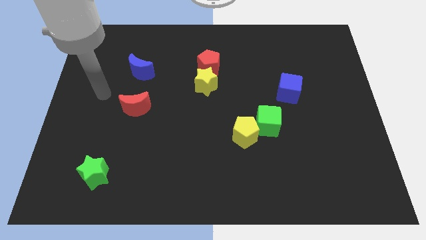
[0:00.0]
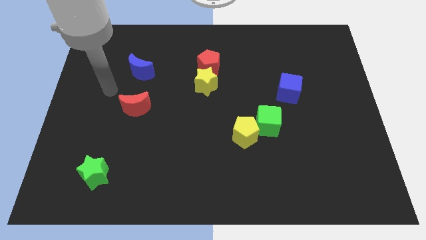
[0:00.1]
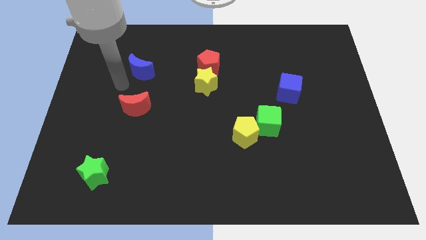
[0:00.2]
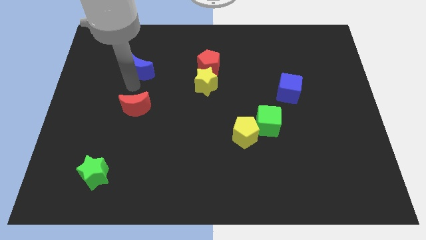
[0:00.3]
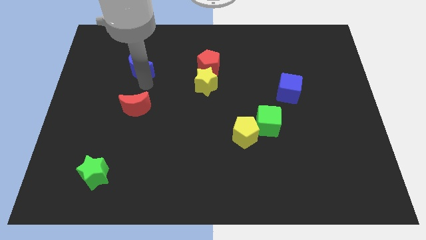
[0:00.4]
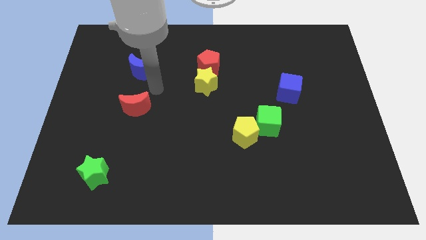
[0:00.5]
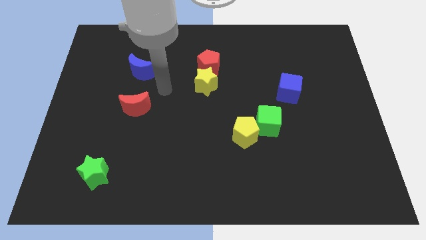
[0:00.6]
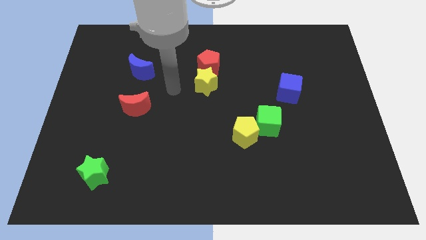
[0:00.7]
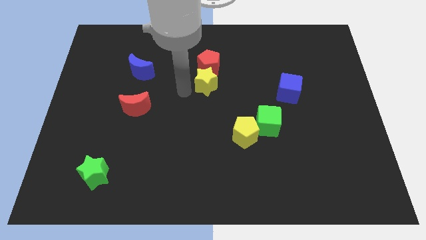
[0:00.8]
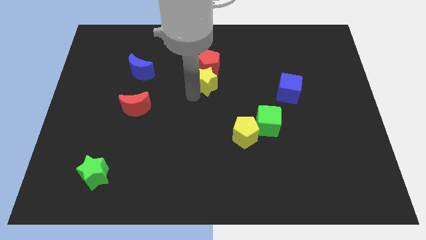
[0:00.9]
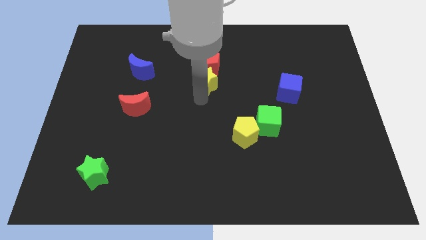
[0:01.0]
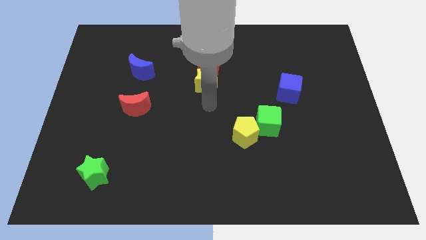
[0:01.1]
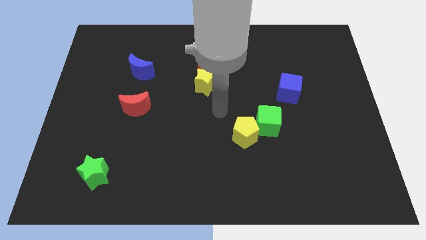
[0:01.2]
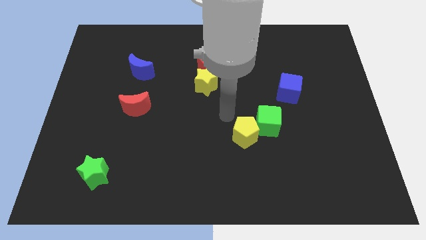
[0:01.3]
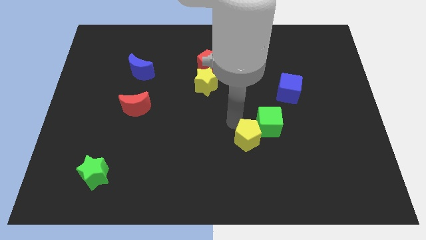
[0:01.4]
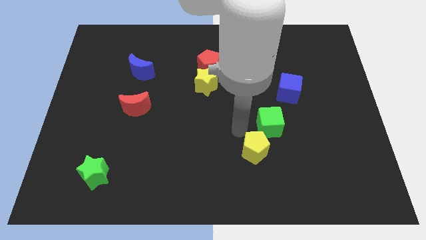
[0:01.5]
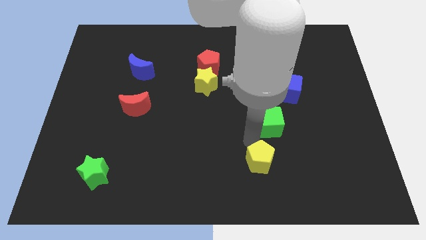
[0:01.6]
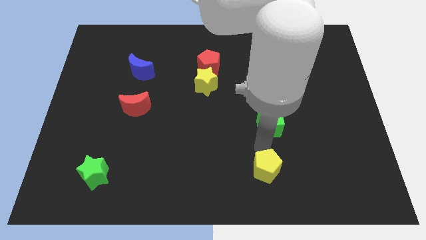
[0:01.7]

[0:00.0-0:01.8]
separate the green cube from the yellow pentagon

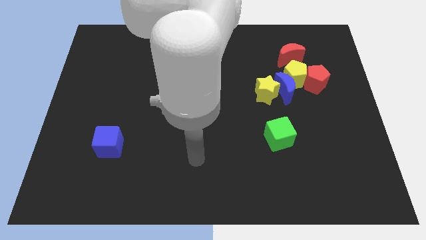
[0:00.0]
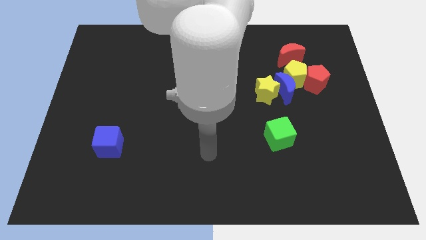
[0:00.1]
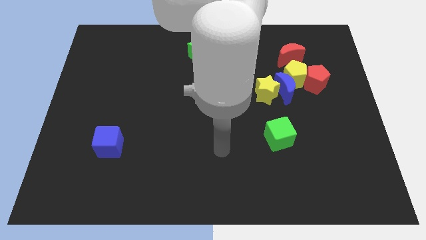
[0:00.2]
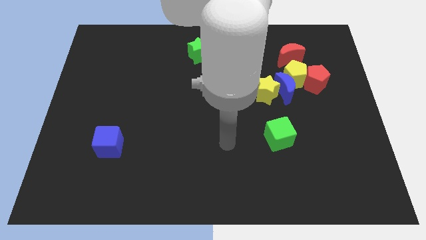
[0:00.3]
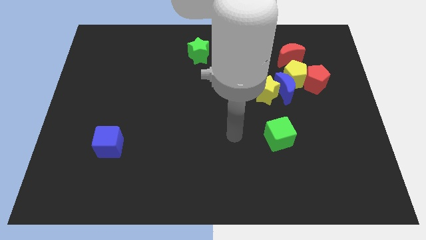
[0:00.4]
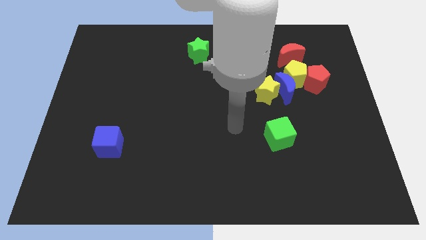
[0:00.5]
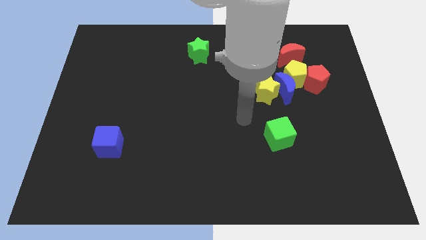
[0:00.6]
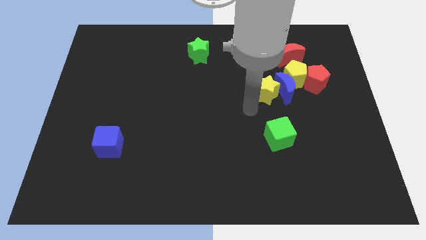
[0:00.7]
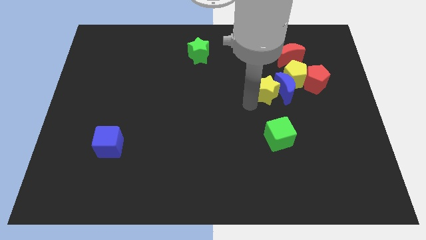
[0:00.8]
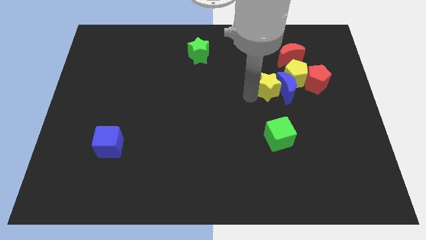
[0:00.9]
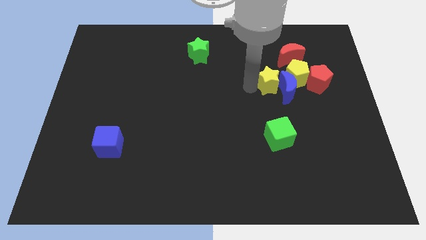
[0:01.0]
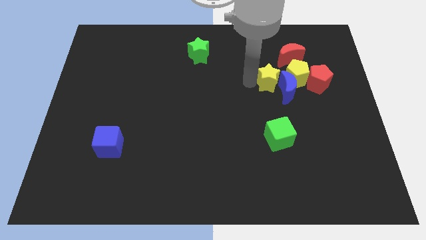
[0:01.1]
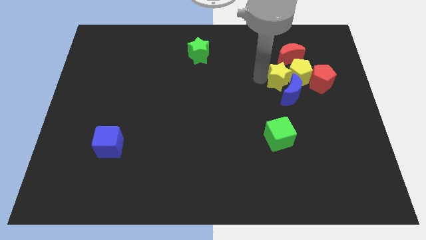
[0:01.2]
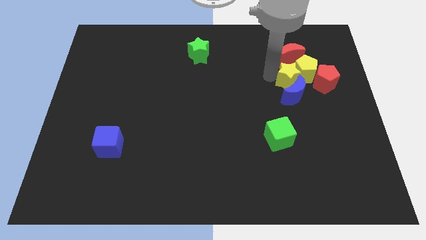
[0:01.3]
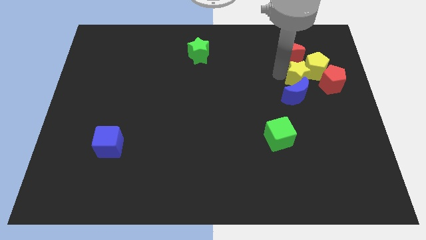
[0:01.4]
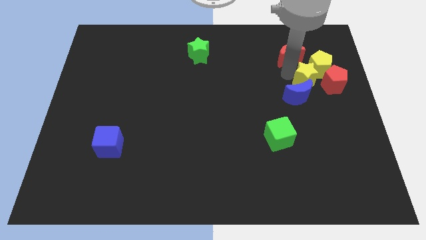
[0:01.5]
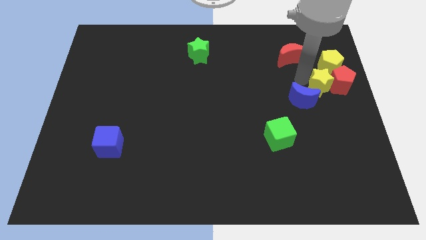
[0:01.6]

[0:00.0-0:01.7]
move the blue moon away from the yellow star, yellow pentagon, and red pentagon

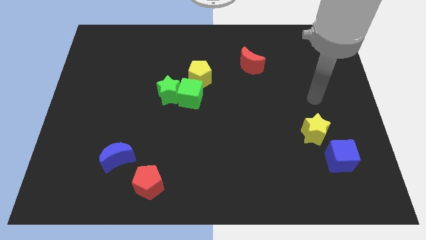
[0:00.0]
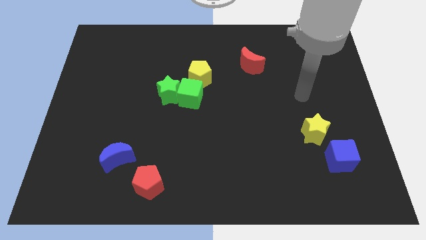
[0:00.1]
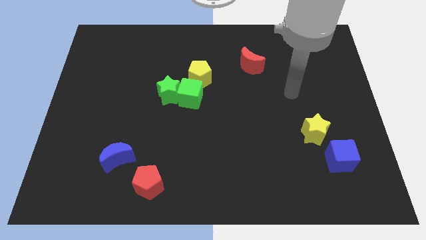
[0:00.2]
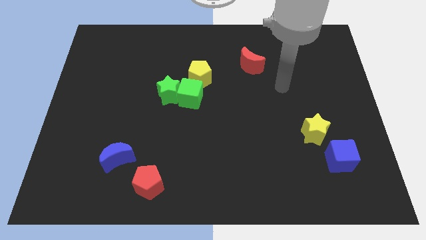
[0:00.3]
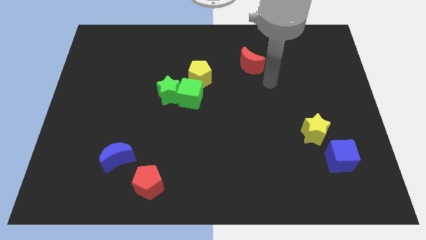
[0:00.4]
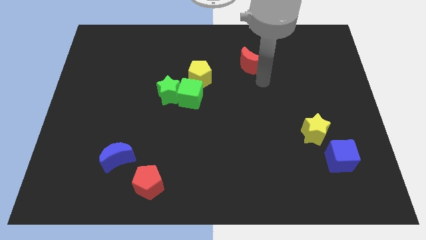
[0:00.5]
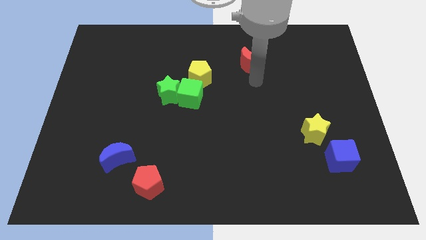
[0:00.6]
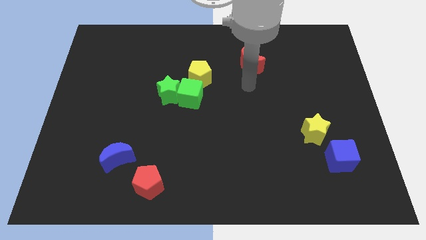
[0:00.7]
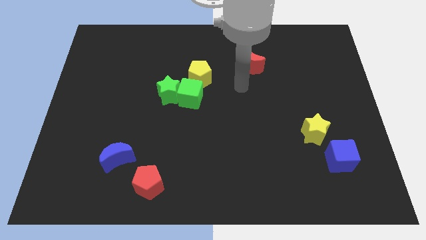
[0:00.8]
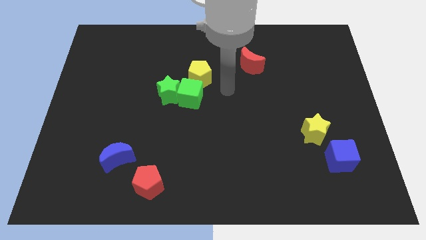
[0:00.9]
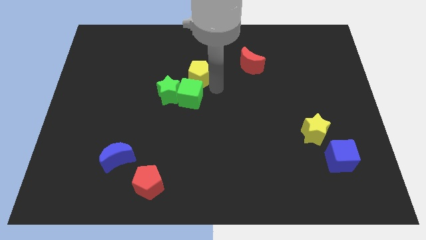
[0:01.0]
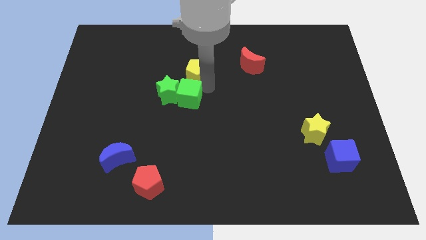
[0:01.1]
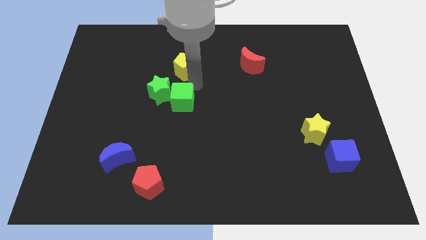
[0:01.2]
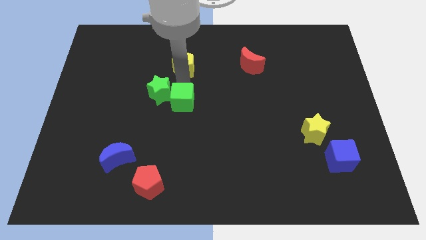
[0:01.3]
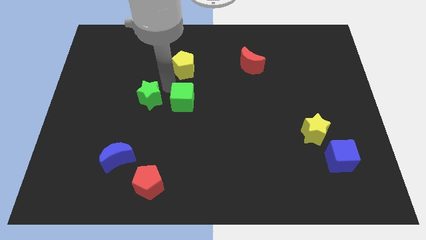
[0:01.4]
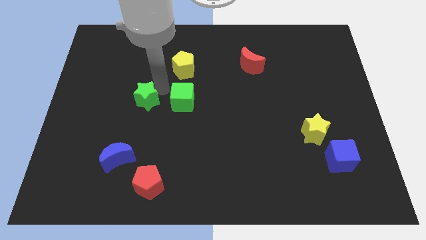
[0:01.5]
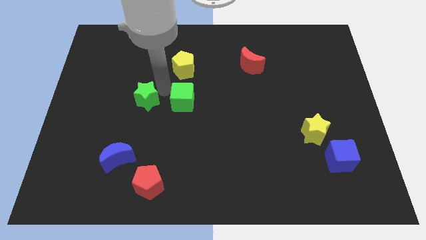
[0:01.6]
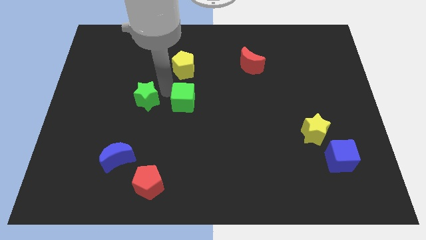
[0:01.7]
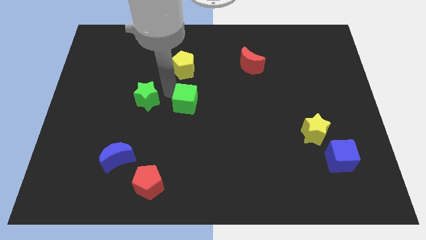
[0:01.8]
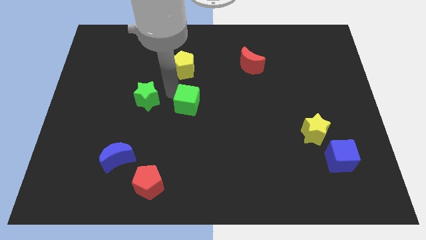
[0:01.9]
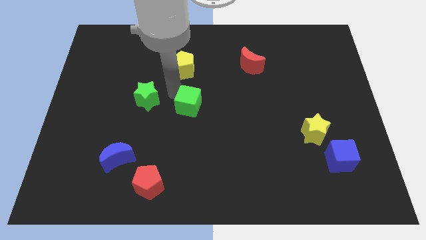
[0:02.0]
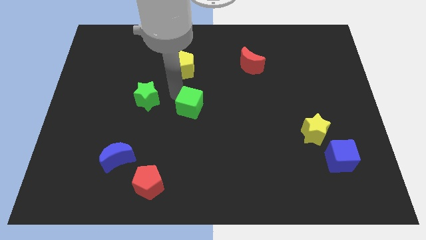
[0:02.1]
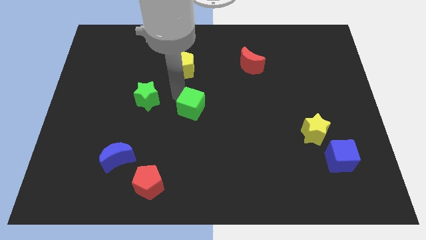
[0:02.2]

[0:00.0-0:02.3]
move the green cube away from the green star and yellow pentagon

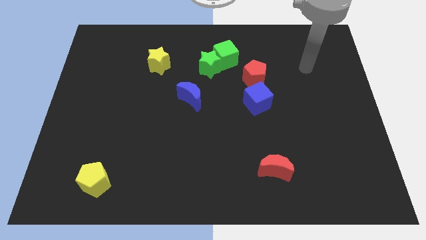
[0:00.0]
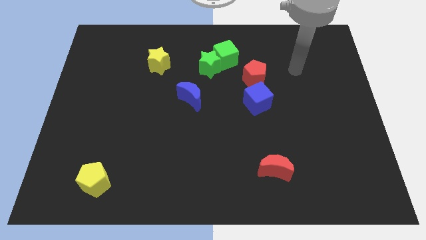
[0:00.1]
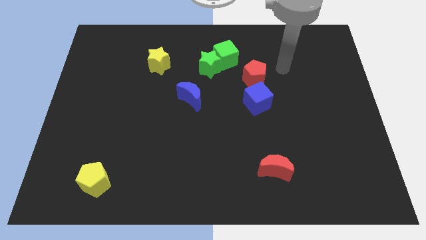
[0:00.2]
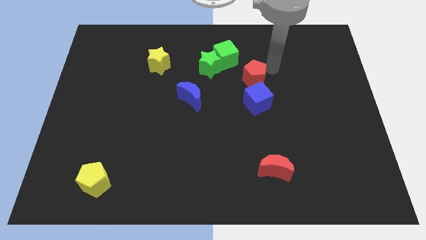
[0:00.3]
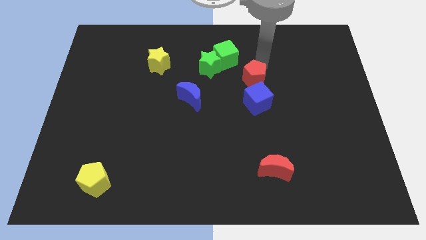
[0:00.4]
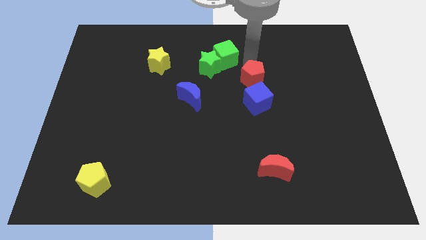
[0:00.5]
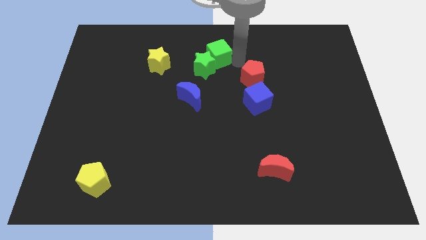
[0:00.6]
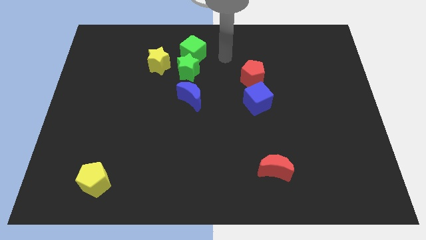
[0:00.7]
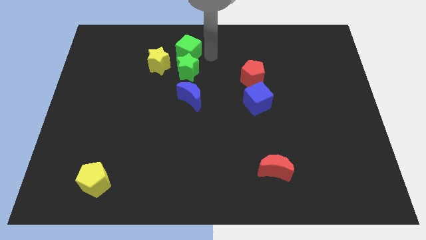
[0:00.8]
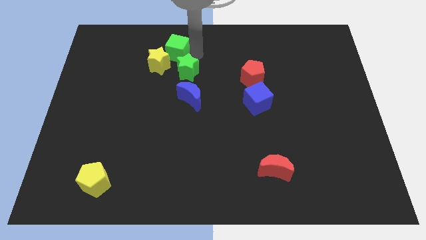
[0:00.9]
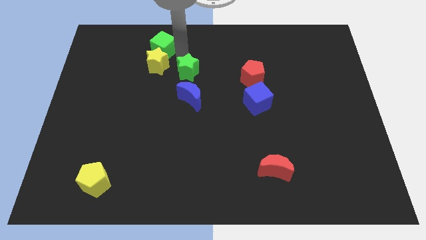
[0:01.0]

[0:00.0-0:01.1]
move the green star away from the green cube

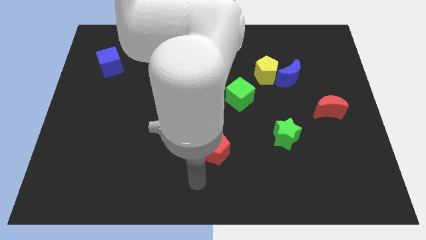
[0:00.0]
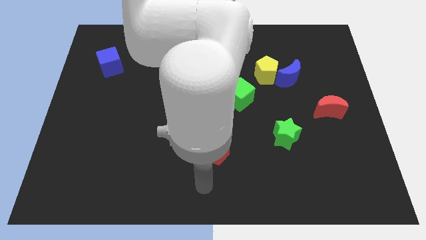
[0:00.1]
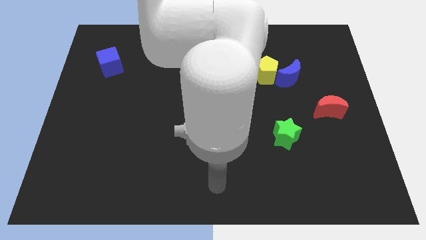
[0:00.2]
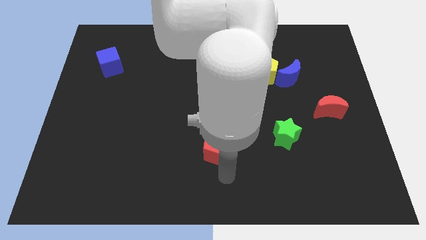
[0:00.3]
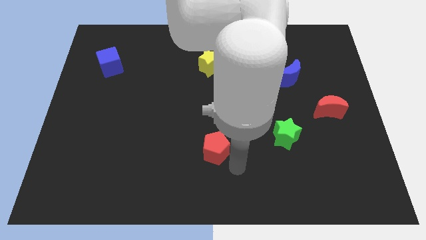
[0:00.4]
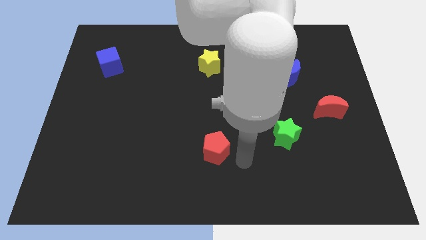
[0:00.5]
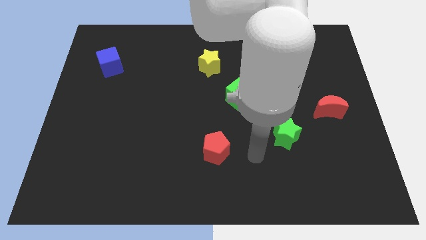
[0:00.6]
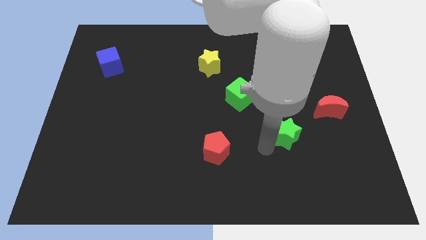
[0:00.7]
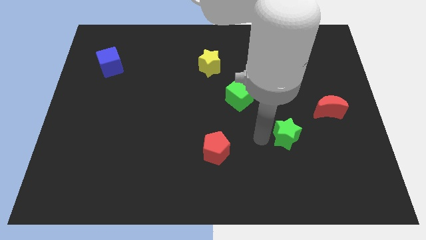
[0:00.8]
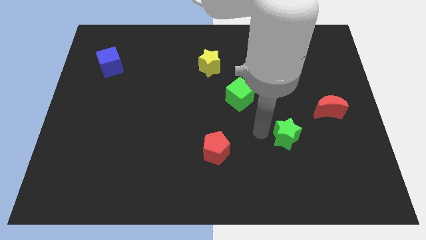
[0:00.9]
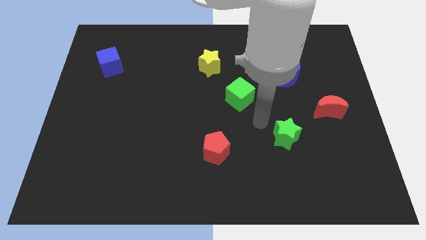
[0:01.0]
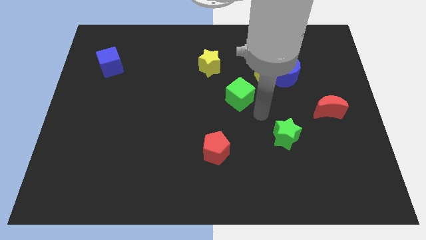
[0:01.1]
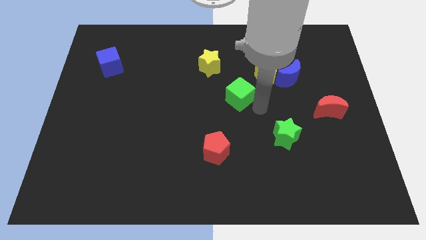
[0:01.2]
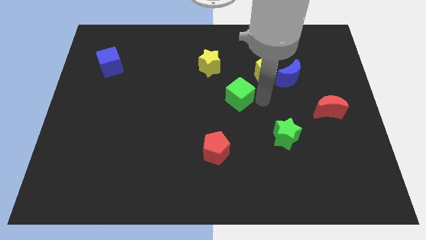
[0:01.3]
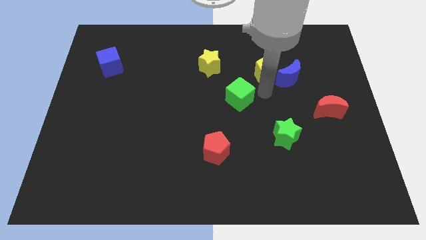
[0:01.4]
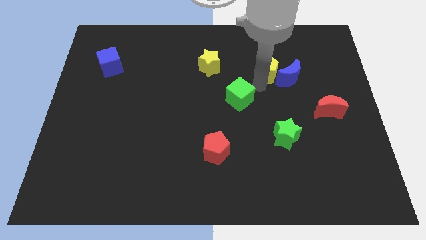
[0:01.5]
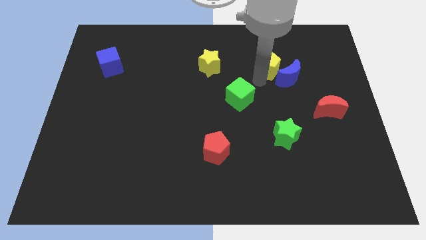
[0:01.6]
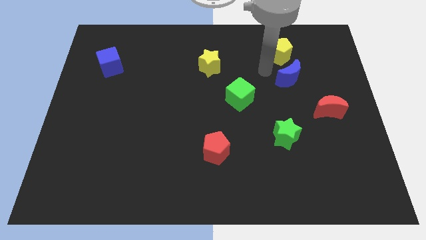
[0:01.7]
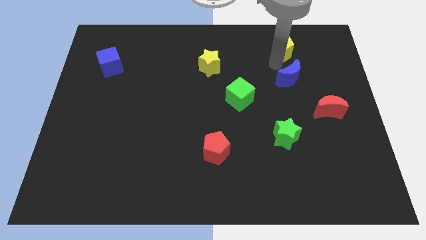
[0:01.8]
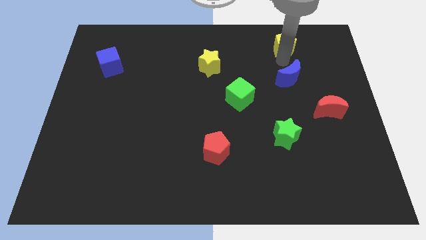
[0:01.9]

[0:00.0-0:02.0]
pull the blue moon apart from the yellow pentagon

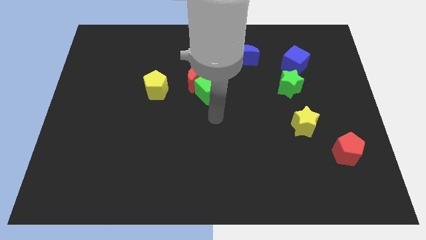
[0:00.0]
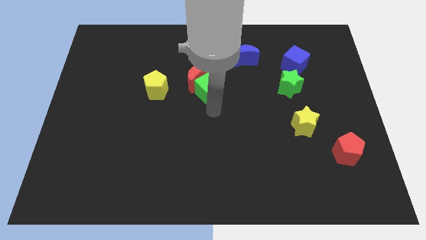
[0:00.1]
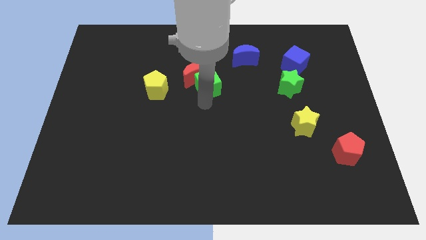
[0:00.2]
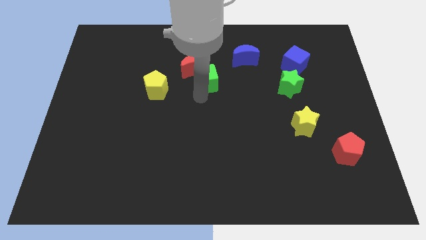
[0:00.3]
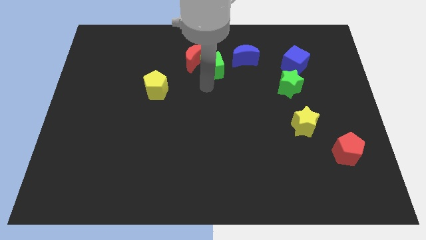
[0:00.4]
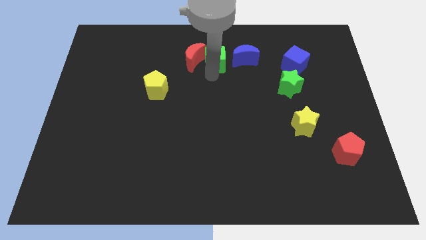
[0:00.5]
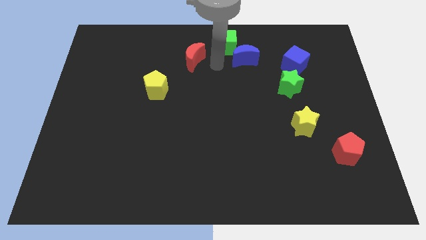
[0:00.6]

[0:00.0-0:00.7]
separate the red moon from the green cube
